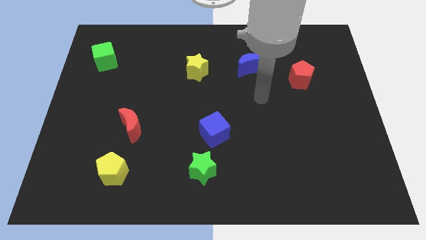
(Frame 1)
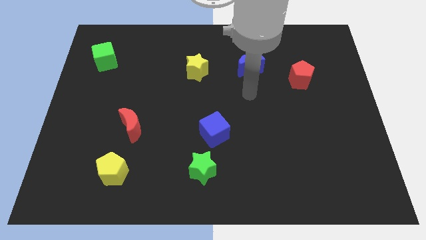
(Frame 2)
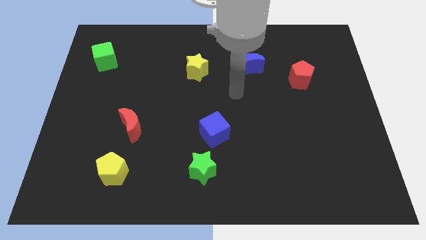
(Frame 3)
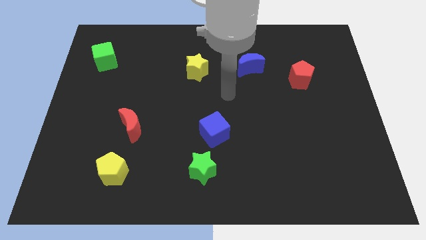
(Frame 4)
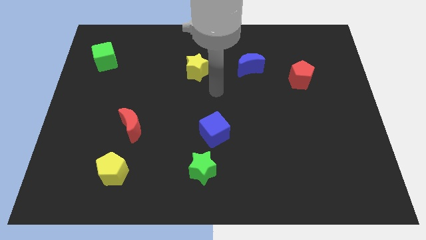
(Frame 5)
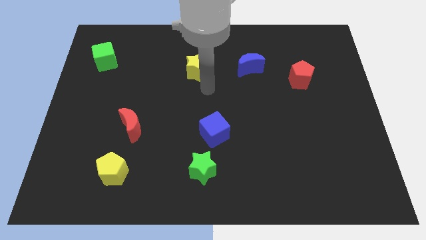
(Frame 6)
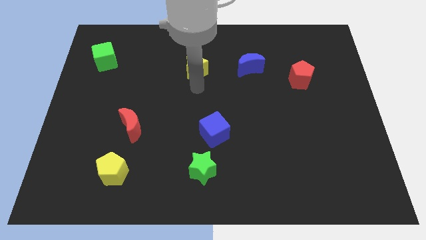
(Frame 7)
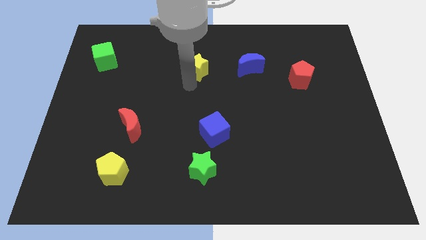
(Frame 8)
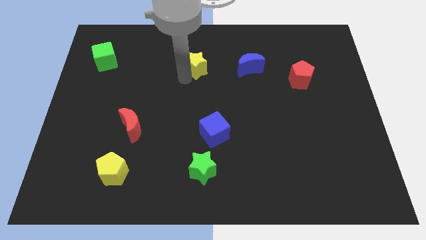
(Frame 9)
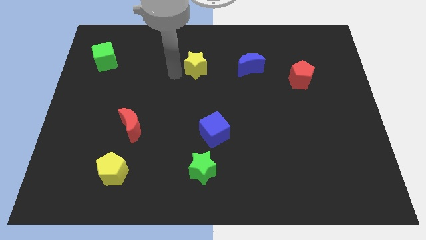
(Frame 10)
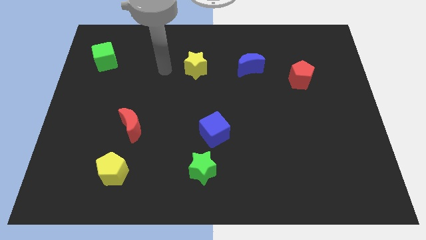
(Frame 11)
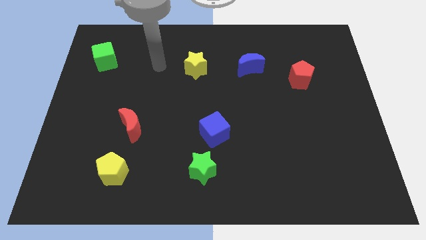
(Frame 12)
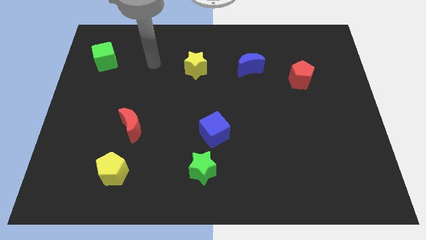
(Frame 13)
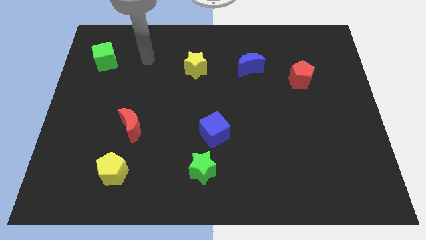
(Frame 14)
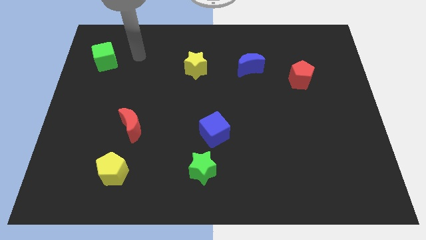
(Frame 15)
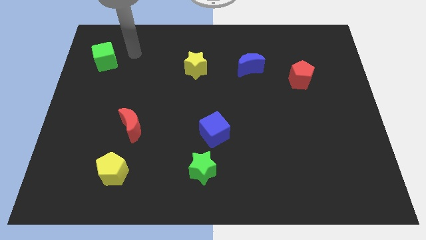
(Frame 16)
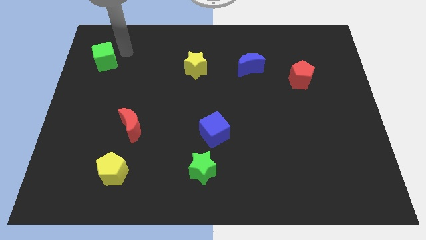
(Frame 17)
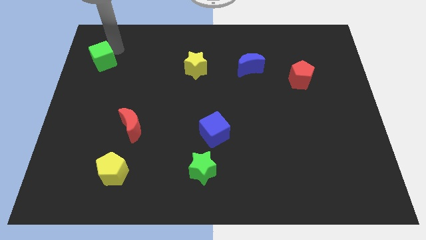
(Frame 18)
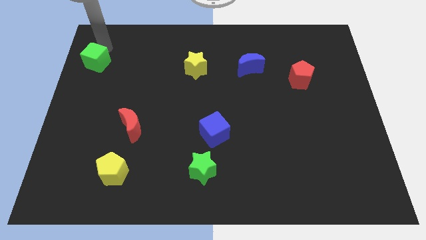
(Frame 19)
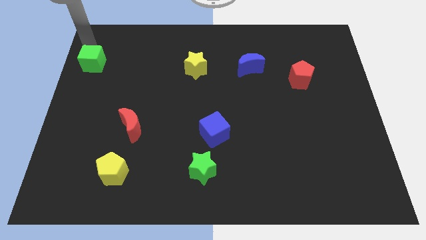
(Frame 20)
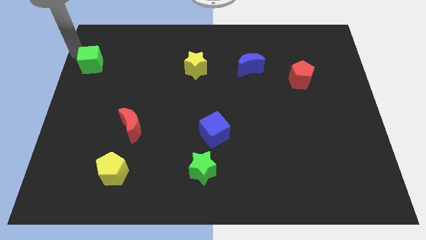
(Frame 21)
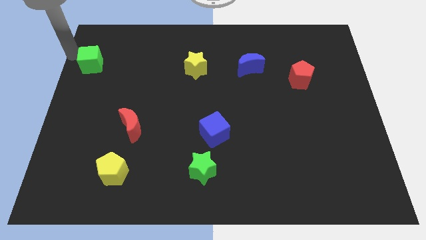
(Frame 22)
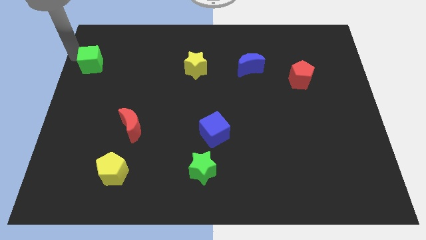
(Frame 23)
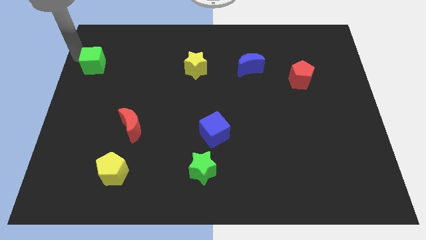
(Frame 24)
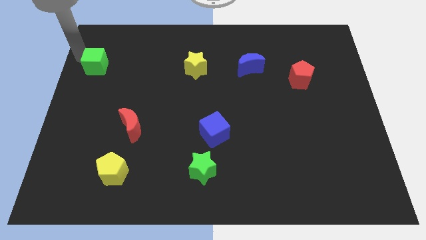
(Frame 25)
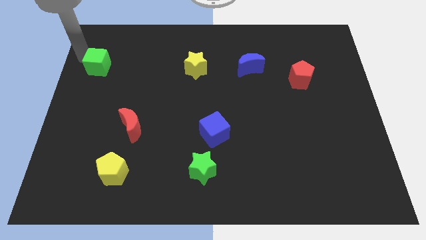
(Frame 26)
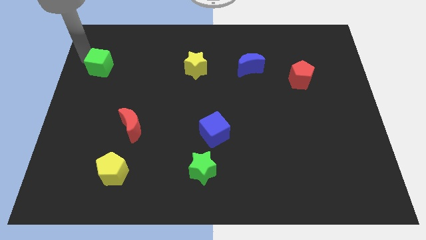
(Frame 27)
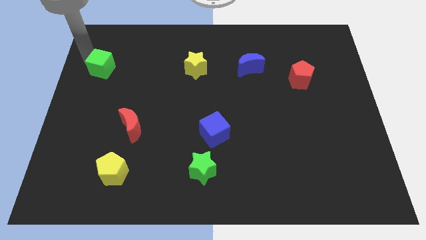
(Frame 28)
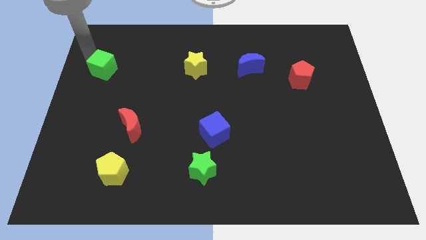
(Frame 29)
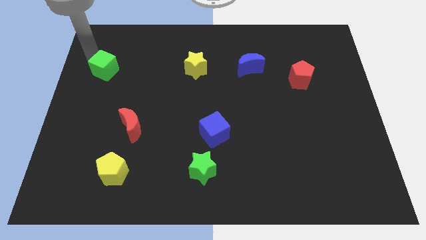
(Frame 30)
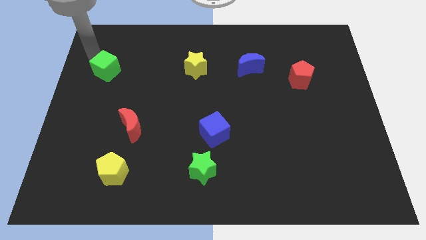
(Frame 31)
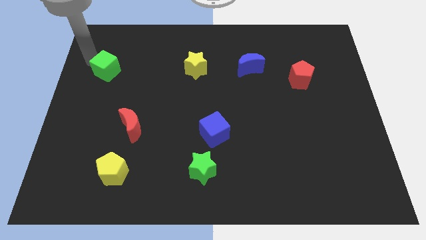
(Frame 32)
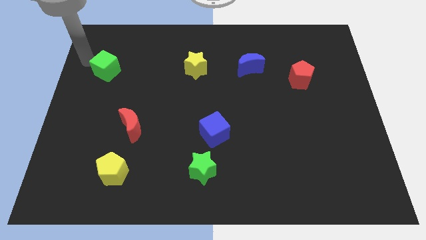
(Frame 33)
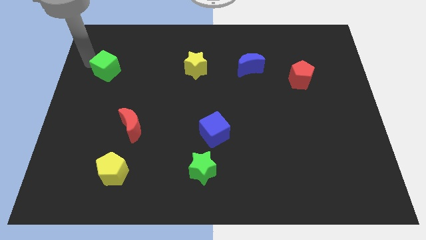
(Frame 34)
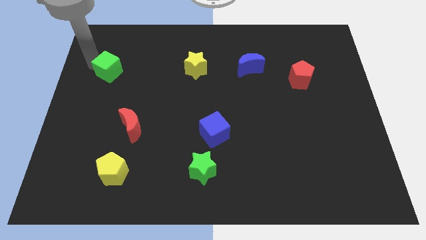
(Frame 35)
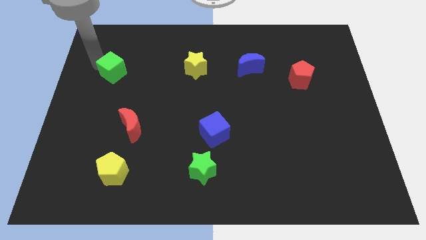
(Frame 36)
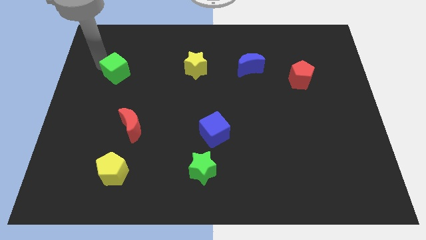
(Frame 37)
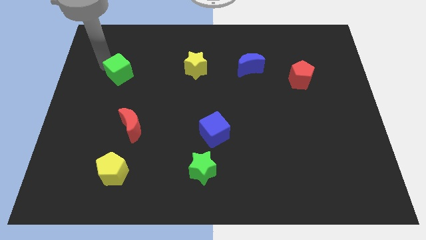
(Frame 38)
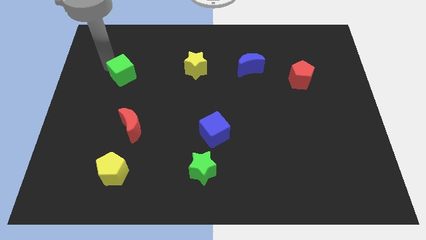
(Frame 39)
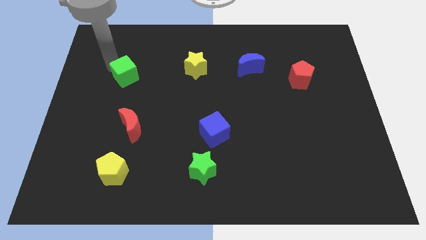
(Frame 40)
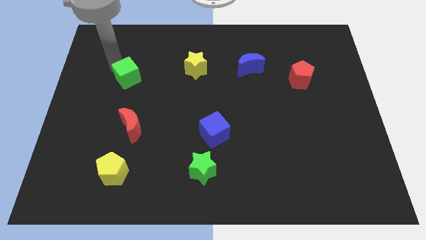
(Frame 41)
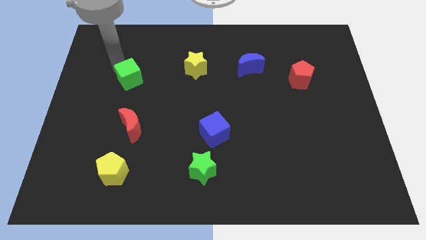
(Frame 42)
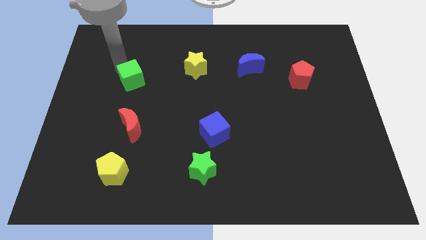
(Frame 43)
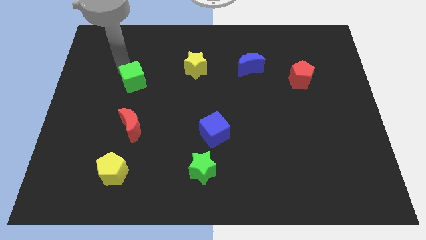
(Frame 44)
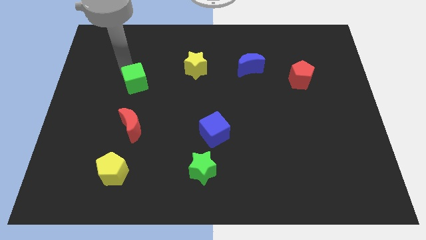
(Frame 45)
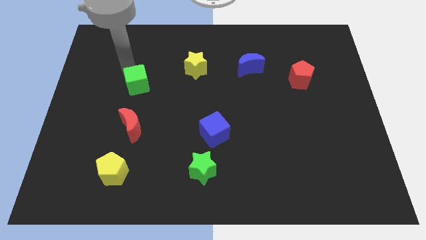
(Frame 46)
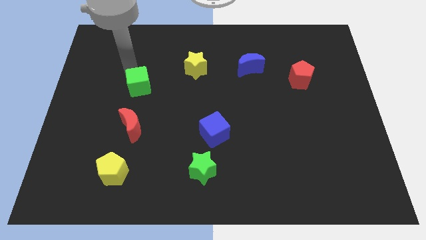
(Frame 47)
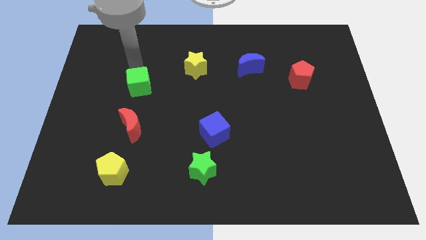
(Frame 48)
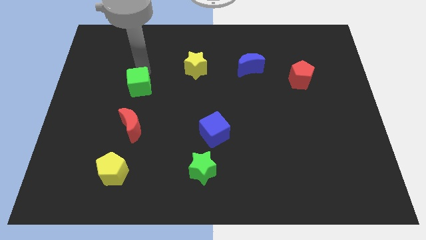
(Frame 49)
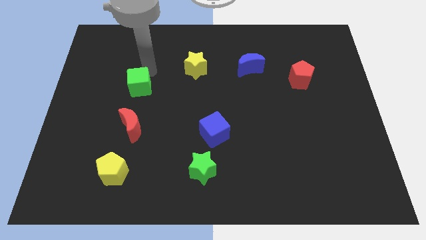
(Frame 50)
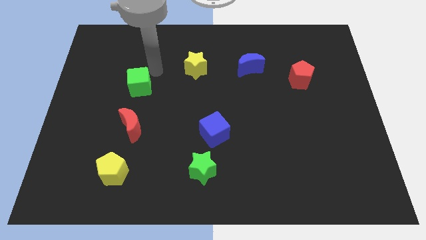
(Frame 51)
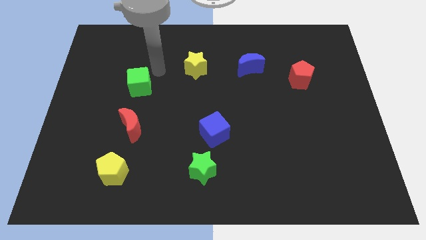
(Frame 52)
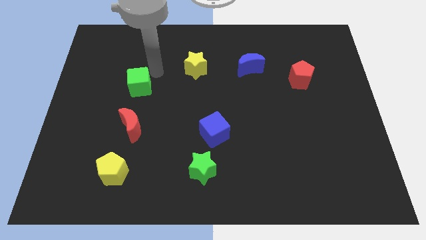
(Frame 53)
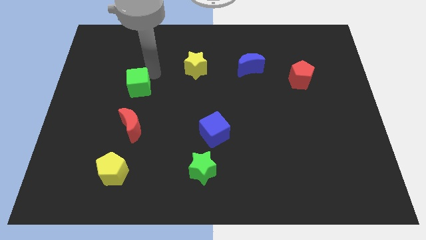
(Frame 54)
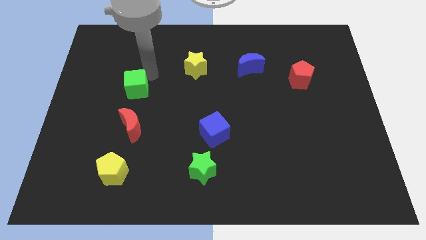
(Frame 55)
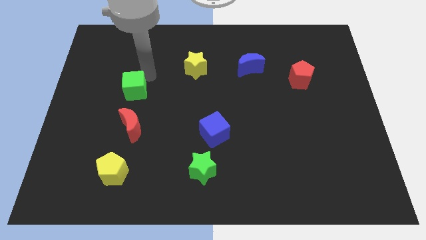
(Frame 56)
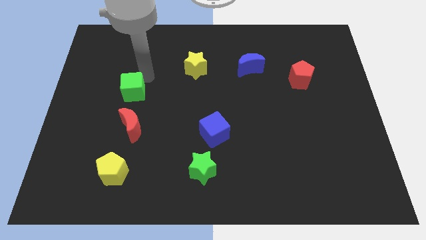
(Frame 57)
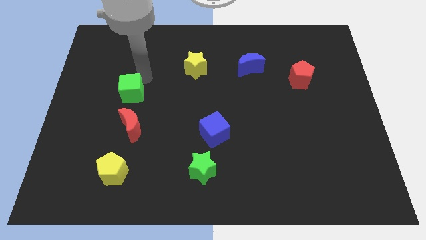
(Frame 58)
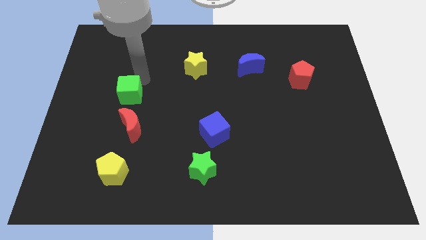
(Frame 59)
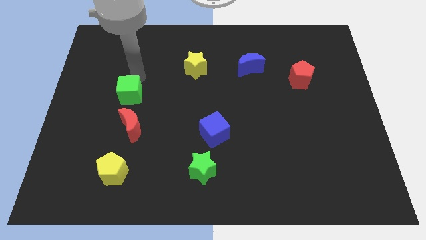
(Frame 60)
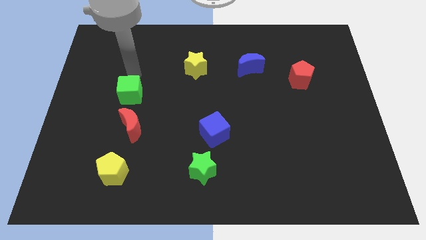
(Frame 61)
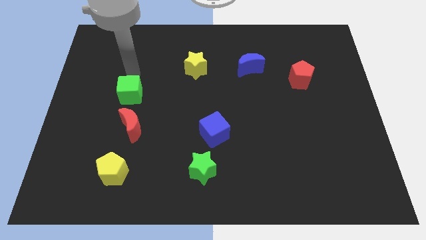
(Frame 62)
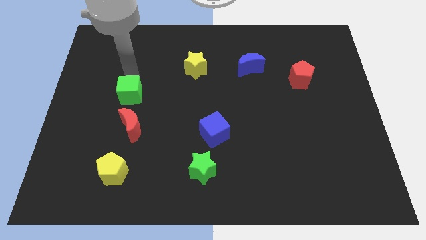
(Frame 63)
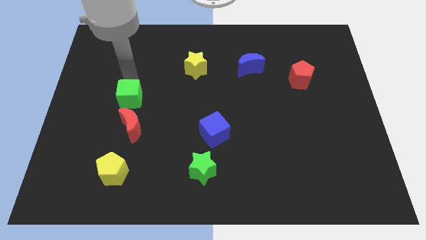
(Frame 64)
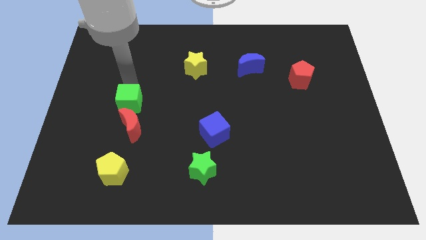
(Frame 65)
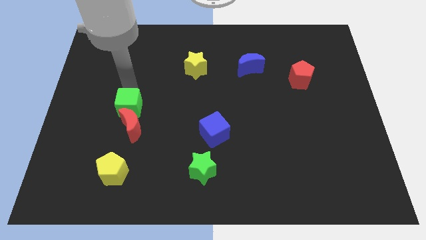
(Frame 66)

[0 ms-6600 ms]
put the green cube towards the red moon

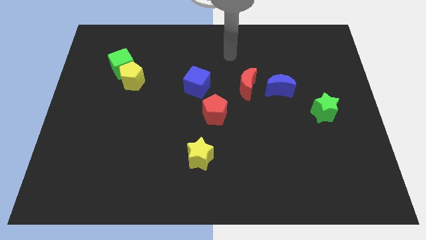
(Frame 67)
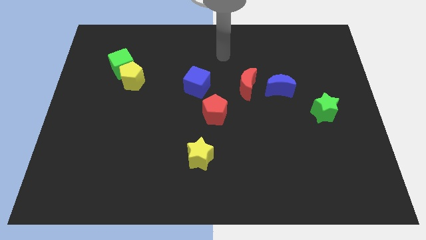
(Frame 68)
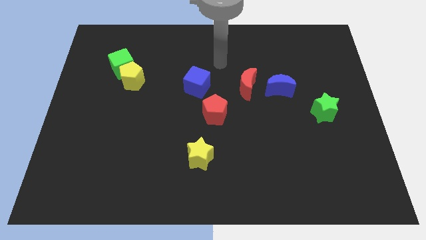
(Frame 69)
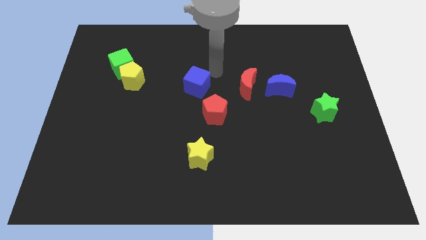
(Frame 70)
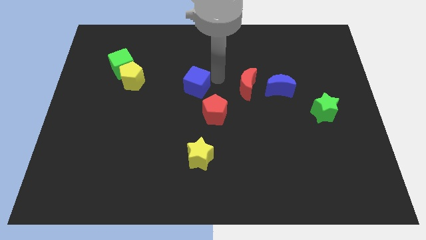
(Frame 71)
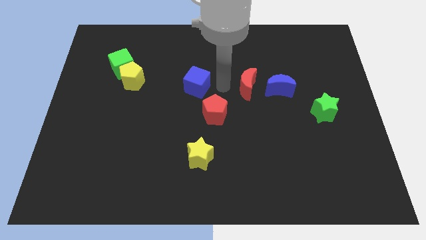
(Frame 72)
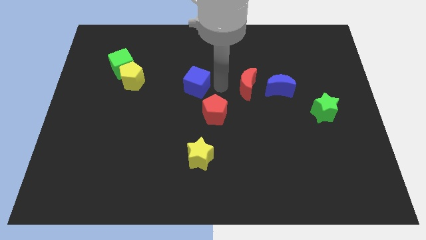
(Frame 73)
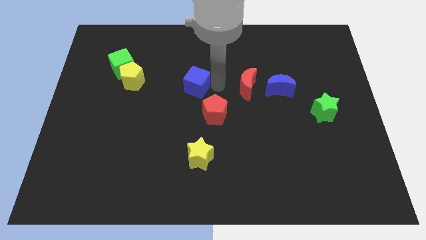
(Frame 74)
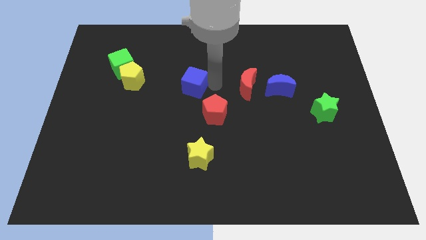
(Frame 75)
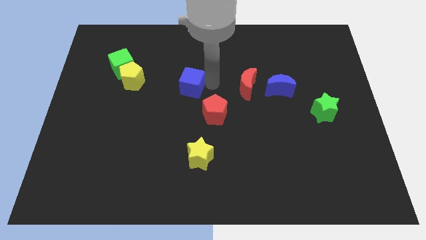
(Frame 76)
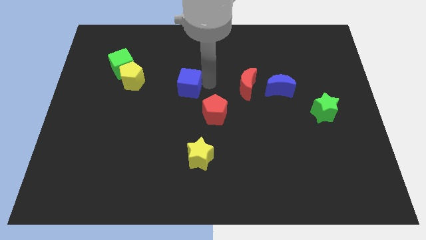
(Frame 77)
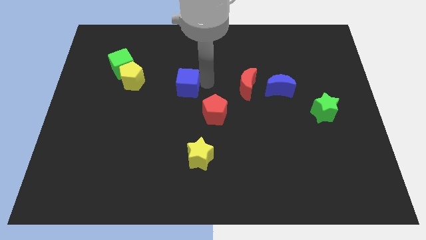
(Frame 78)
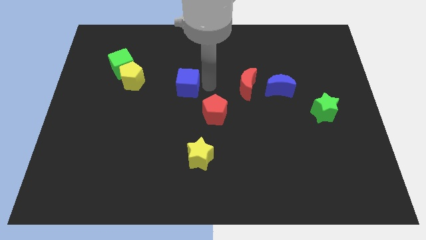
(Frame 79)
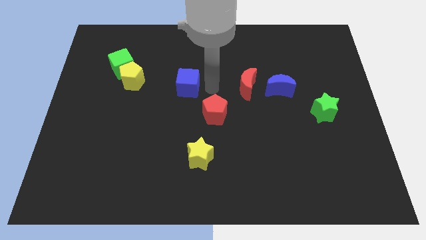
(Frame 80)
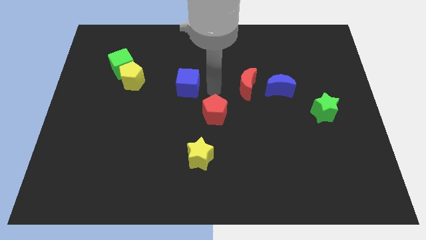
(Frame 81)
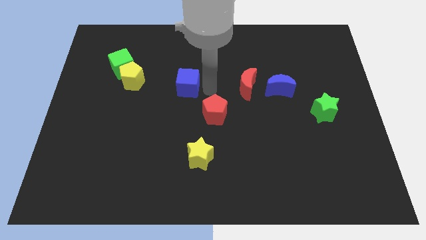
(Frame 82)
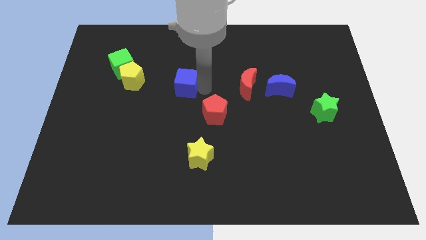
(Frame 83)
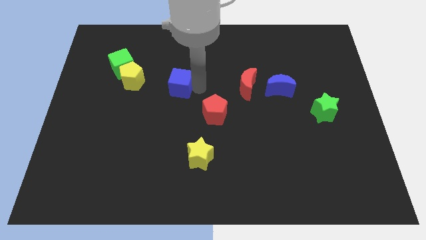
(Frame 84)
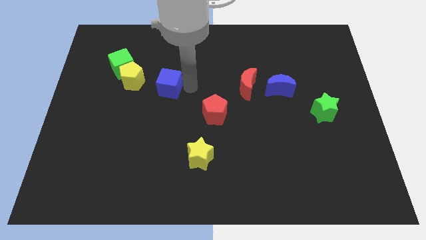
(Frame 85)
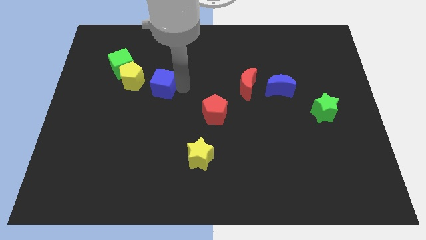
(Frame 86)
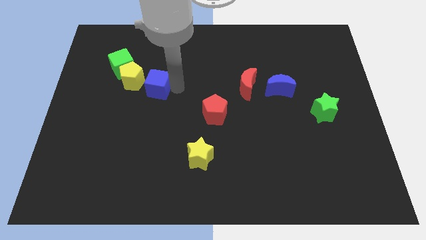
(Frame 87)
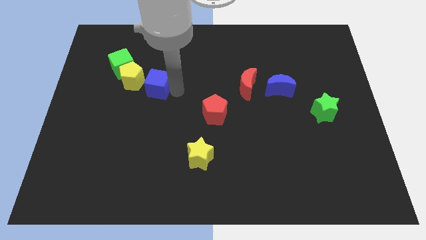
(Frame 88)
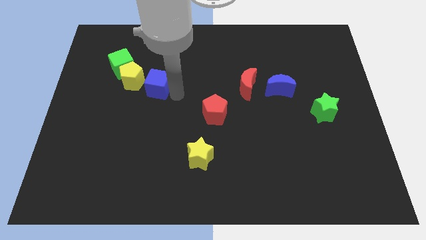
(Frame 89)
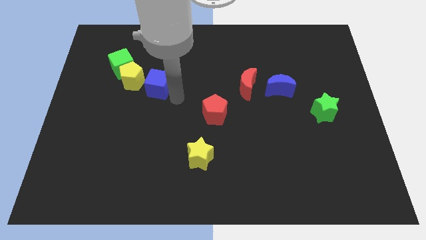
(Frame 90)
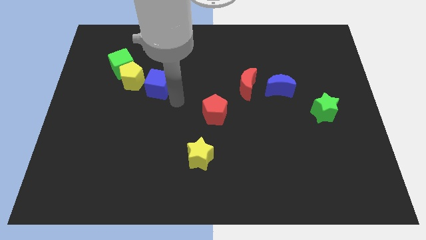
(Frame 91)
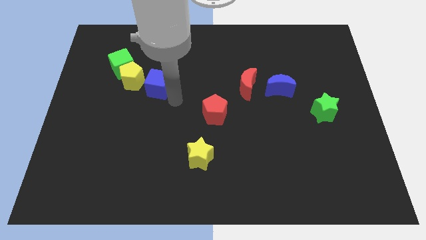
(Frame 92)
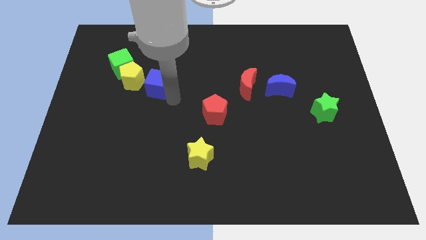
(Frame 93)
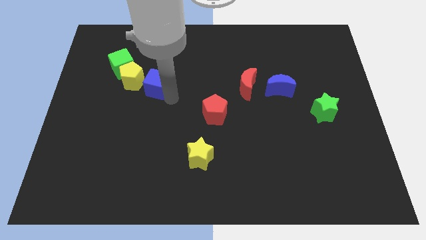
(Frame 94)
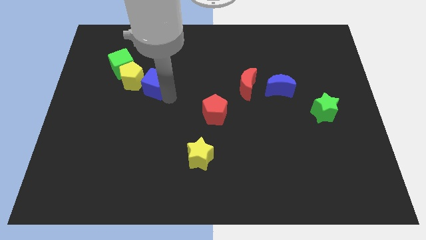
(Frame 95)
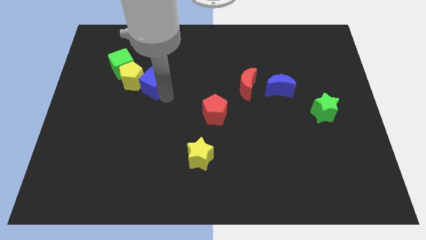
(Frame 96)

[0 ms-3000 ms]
put the blue cube close to the yellow pentagon
